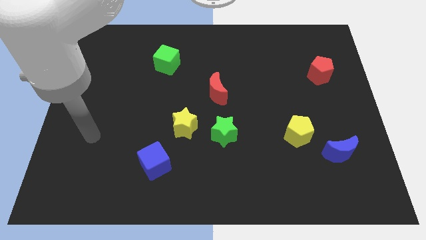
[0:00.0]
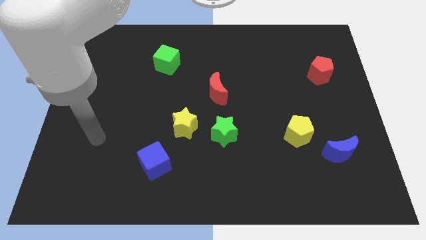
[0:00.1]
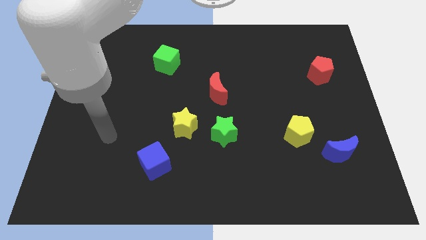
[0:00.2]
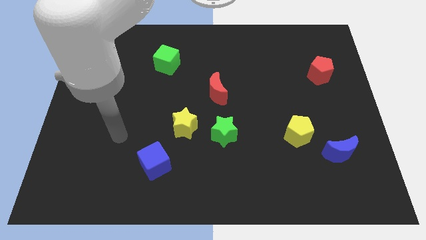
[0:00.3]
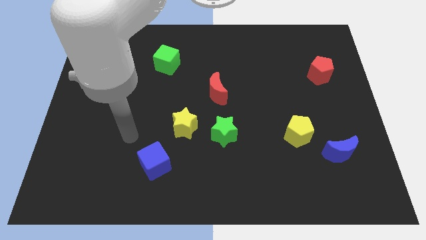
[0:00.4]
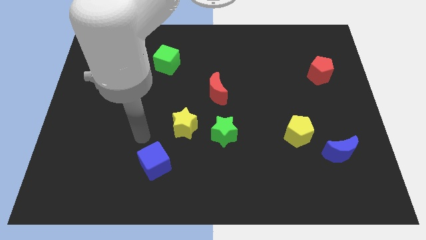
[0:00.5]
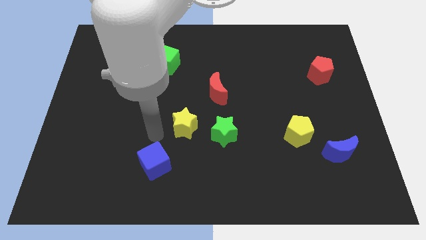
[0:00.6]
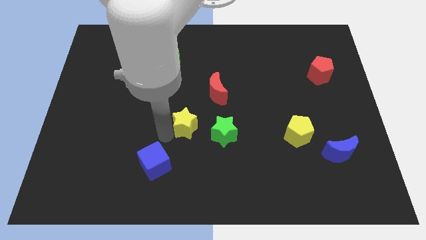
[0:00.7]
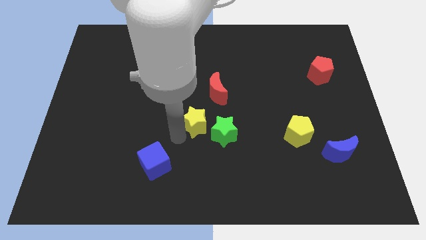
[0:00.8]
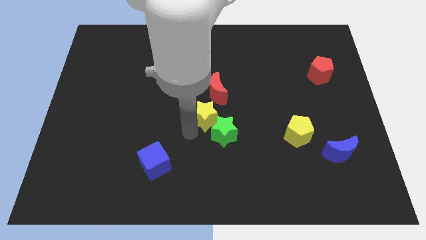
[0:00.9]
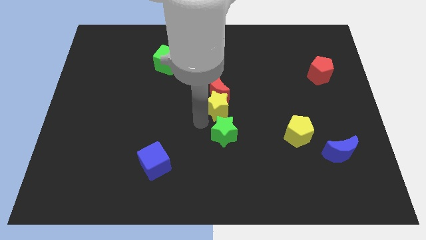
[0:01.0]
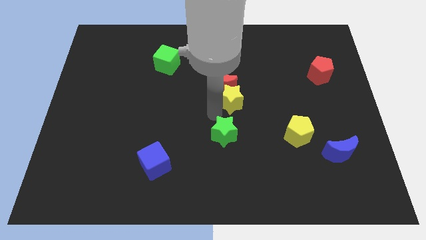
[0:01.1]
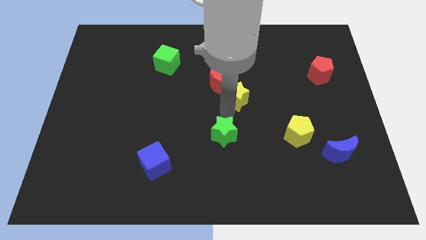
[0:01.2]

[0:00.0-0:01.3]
move the green star away from the yellow star

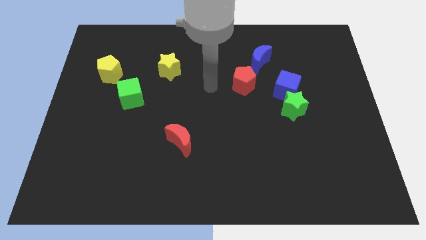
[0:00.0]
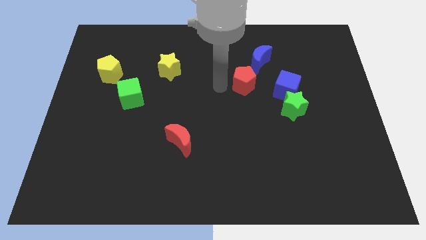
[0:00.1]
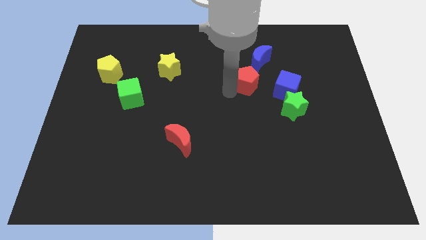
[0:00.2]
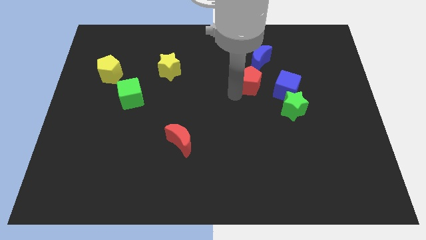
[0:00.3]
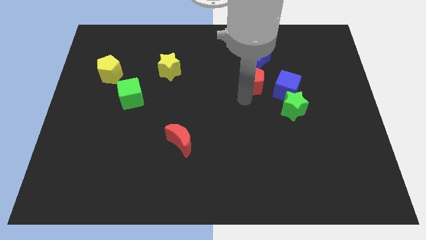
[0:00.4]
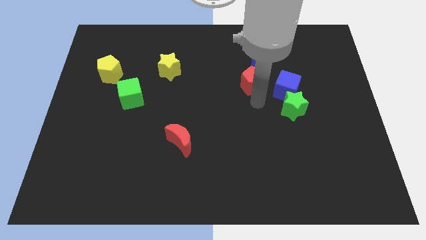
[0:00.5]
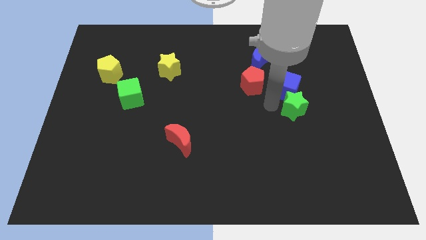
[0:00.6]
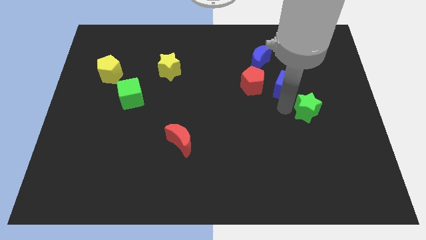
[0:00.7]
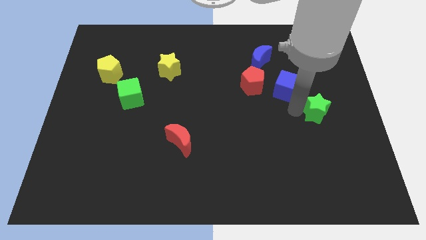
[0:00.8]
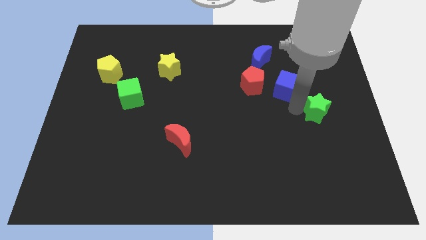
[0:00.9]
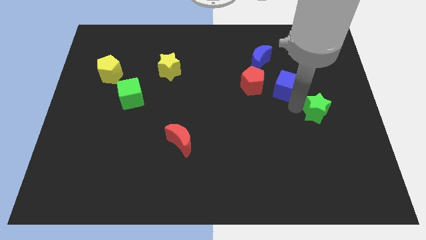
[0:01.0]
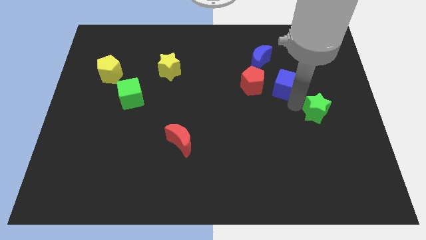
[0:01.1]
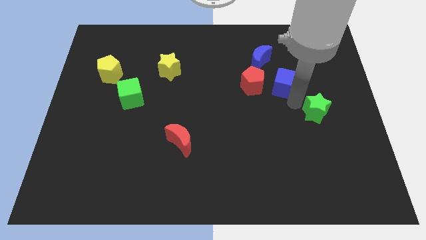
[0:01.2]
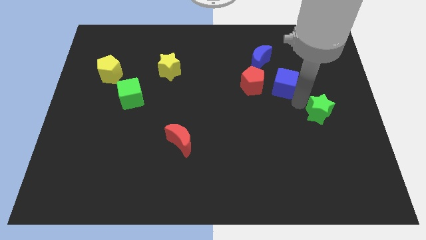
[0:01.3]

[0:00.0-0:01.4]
pull the blue cube apart from the green star

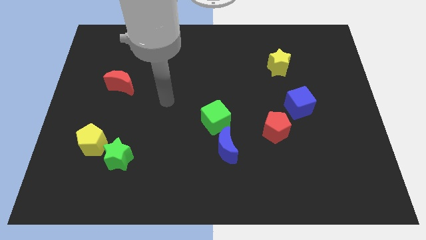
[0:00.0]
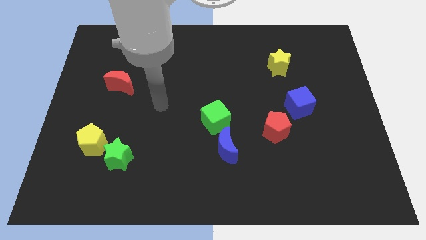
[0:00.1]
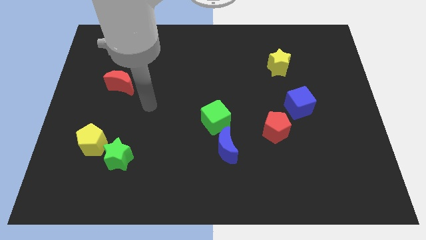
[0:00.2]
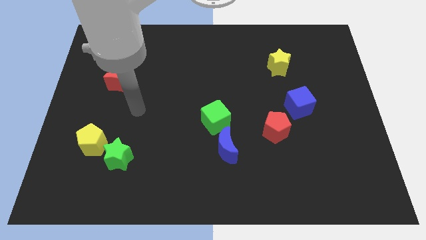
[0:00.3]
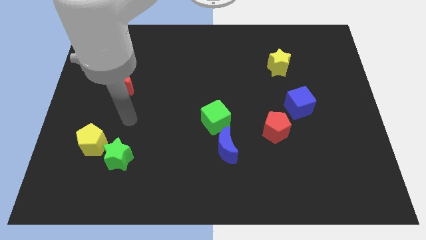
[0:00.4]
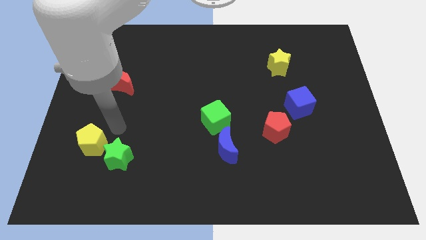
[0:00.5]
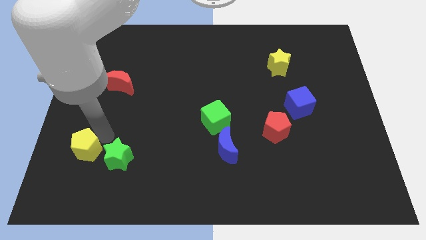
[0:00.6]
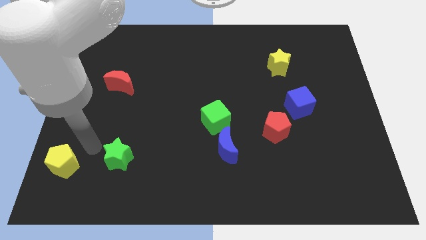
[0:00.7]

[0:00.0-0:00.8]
pull the green star apart from the yellow pentagon

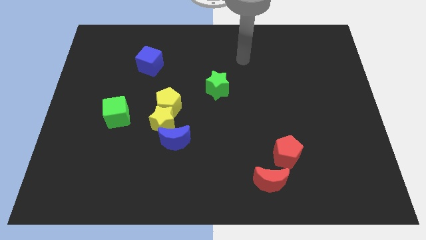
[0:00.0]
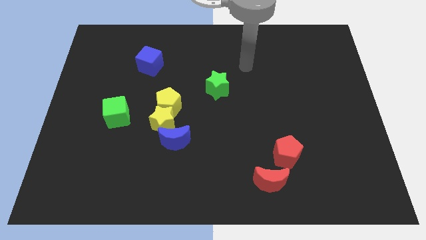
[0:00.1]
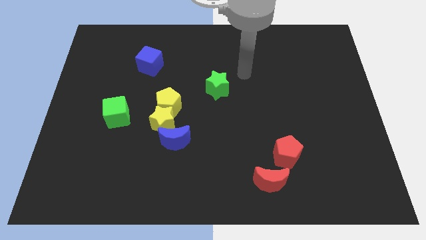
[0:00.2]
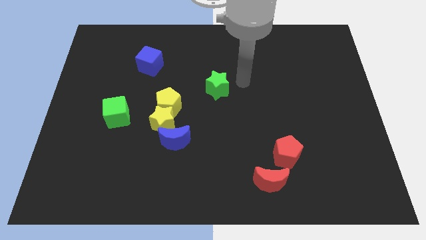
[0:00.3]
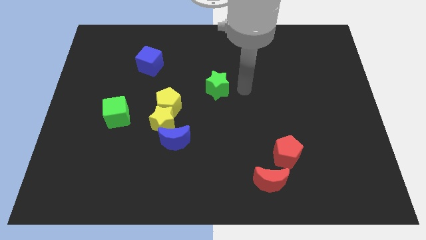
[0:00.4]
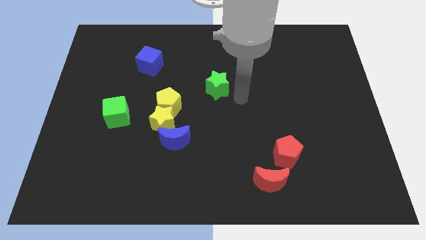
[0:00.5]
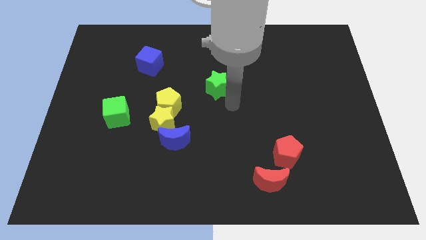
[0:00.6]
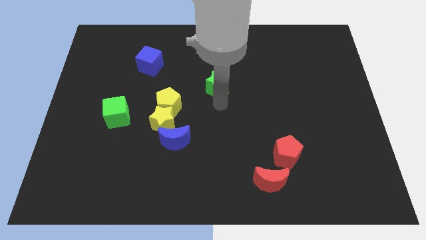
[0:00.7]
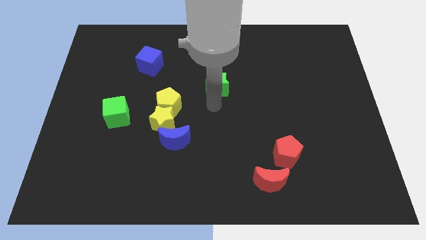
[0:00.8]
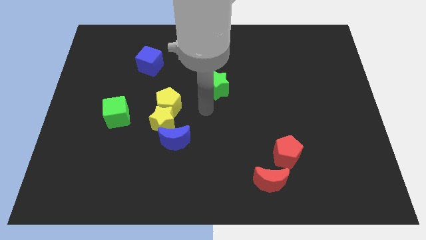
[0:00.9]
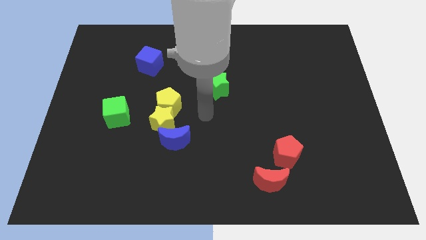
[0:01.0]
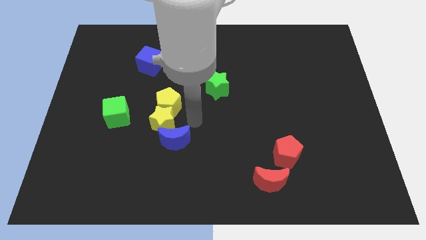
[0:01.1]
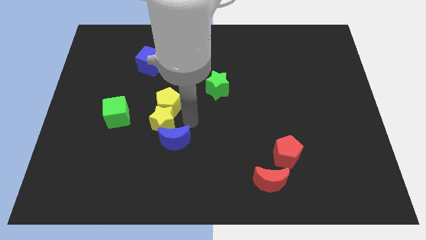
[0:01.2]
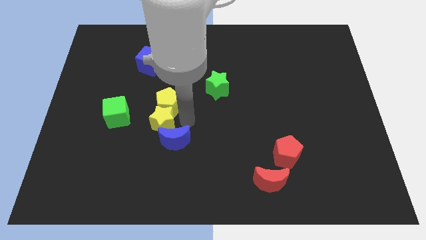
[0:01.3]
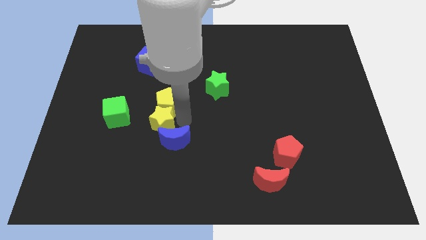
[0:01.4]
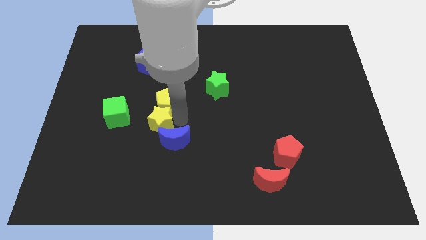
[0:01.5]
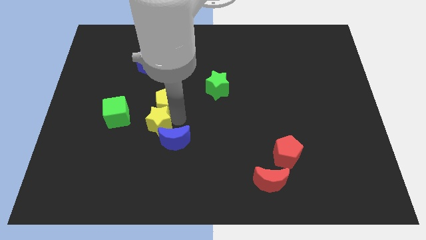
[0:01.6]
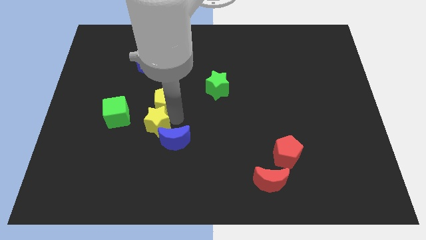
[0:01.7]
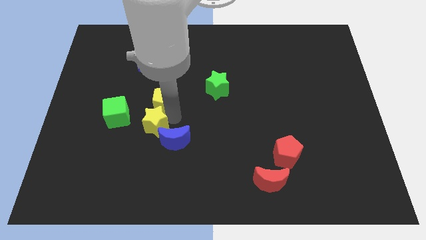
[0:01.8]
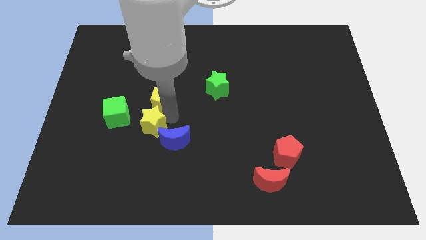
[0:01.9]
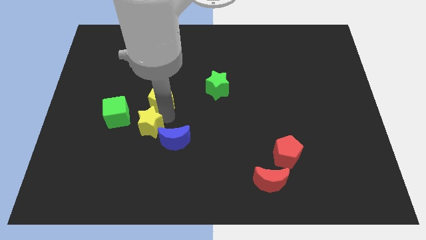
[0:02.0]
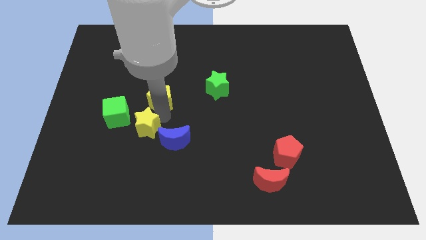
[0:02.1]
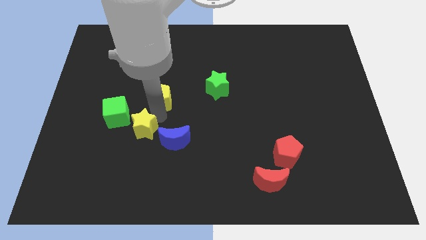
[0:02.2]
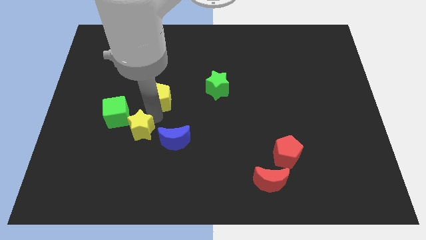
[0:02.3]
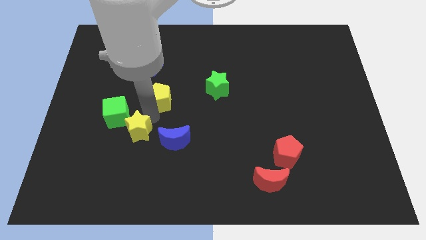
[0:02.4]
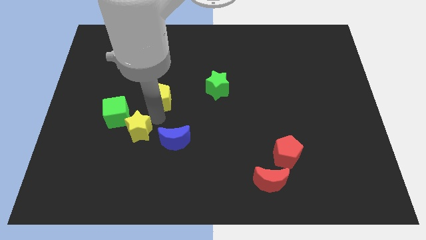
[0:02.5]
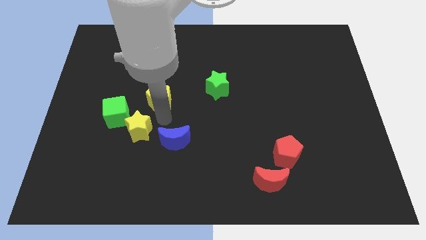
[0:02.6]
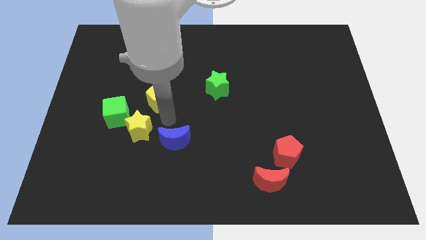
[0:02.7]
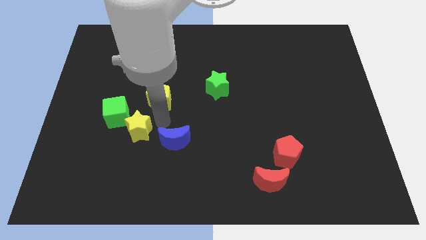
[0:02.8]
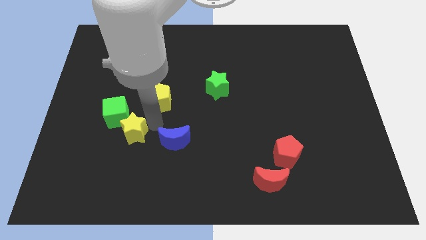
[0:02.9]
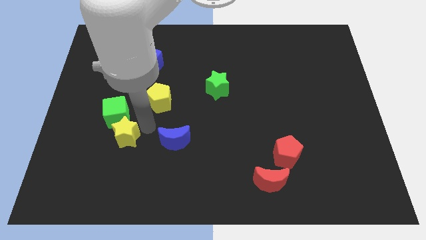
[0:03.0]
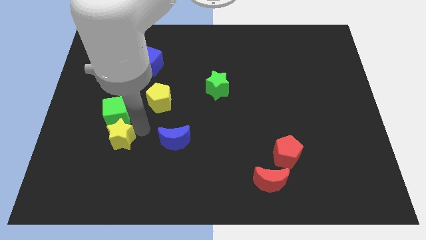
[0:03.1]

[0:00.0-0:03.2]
pull the yellow star apart from the blue moon and yellow pentagon

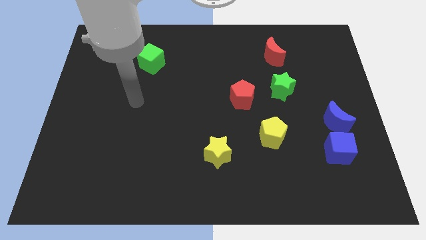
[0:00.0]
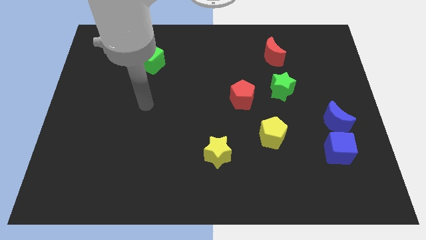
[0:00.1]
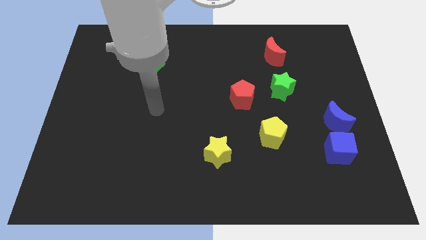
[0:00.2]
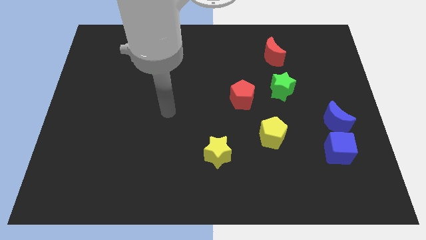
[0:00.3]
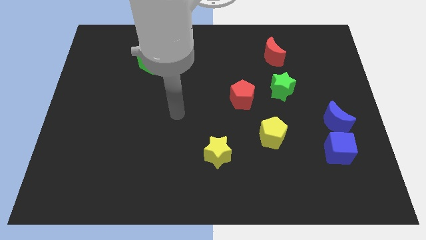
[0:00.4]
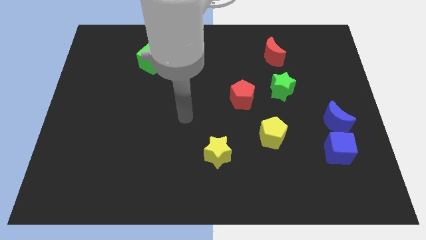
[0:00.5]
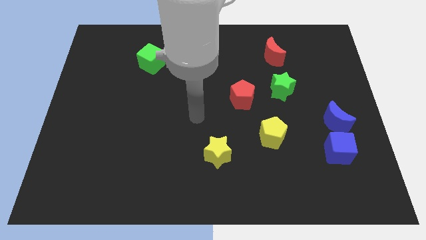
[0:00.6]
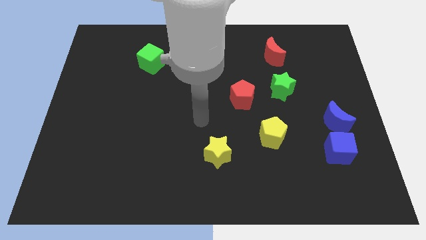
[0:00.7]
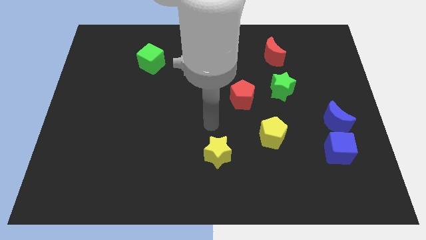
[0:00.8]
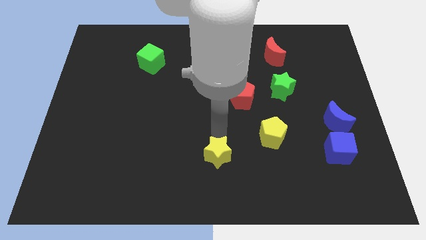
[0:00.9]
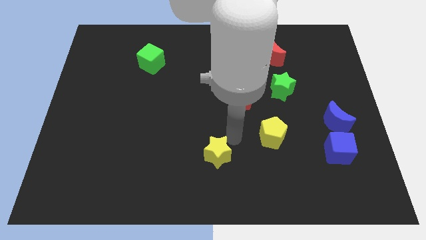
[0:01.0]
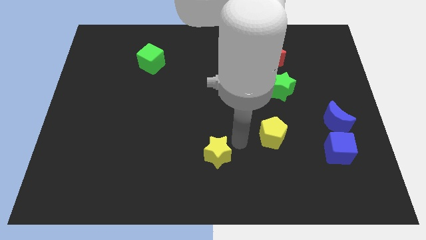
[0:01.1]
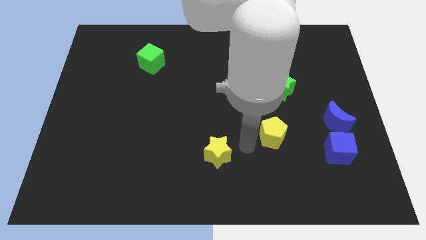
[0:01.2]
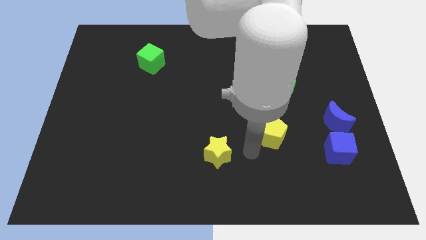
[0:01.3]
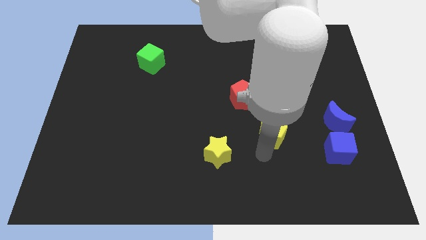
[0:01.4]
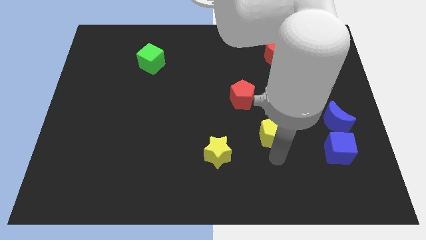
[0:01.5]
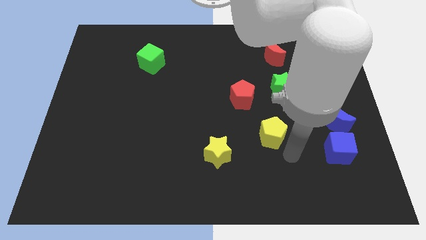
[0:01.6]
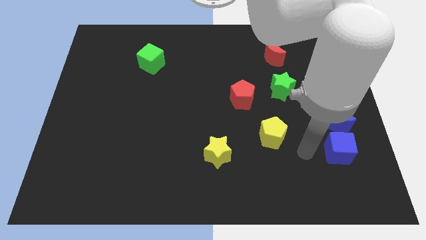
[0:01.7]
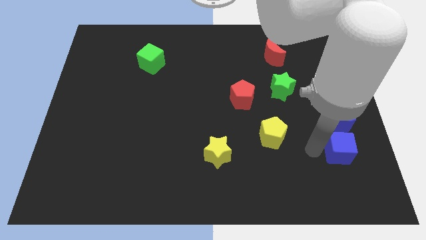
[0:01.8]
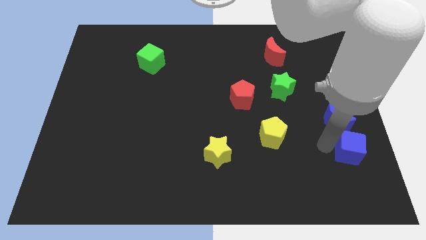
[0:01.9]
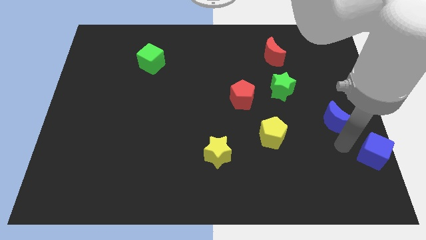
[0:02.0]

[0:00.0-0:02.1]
move the blue moon away from the blue cube

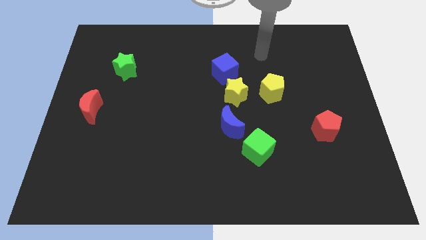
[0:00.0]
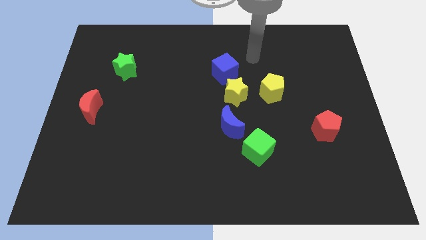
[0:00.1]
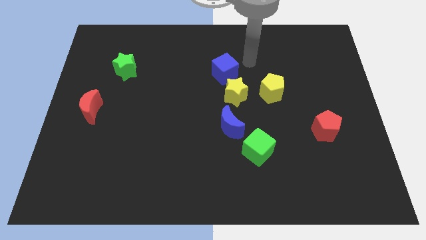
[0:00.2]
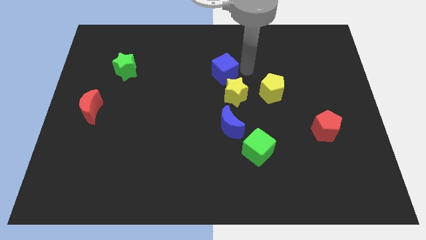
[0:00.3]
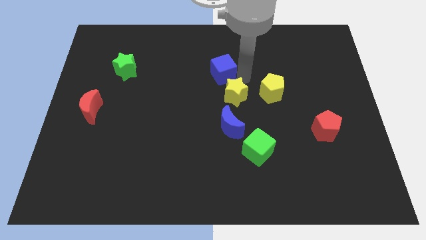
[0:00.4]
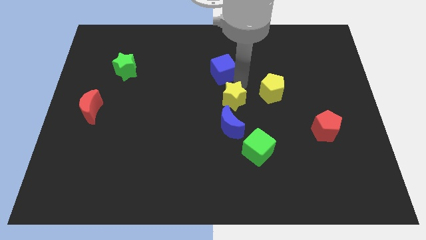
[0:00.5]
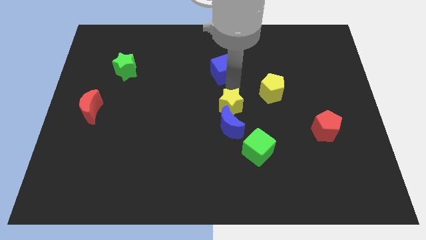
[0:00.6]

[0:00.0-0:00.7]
pull the blue cube apart from the yellow star
